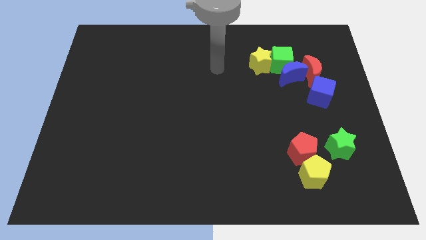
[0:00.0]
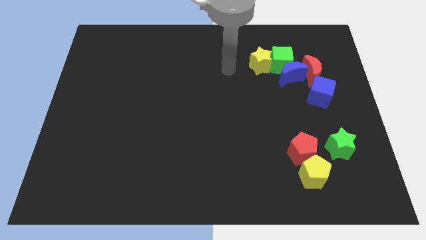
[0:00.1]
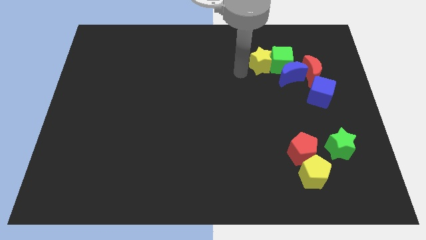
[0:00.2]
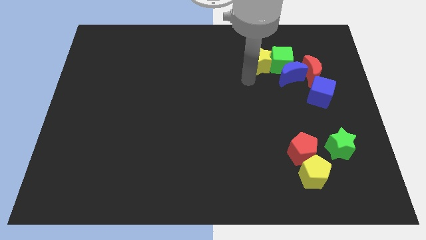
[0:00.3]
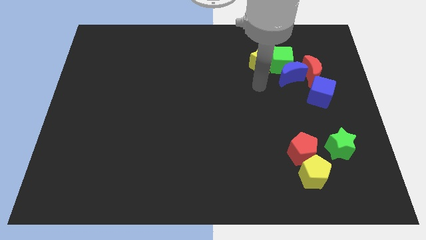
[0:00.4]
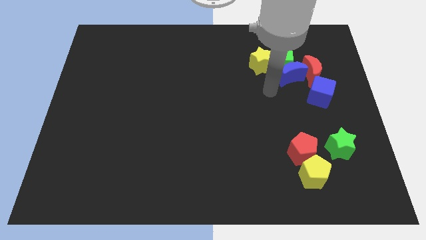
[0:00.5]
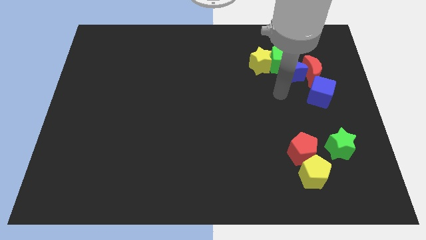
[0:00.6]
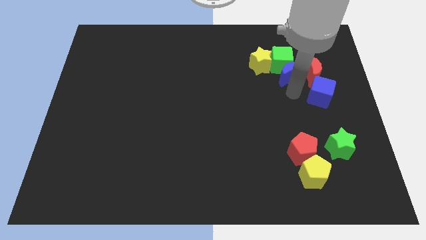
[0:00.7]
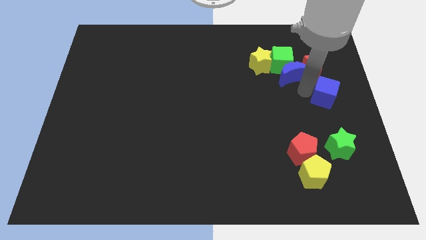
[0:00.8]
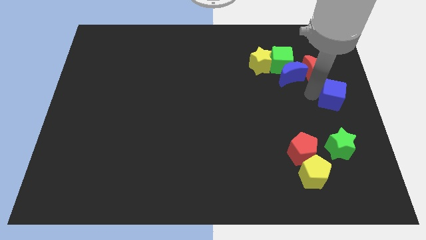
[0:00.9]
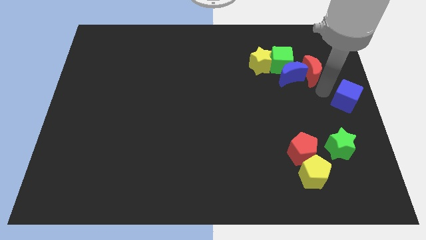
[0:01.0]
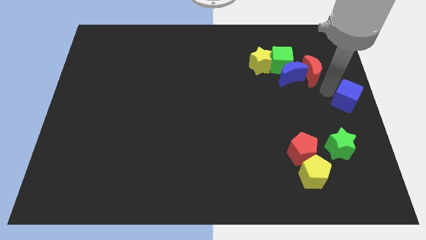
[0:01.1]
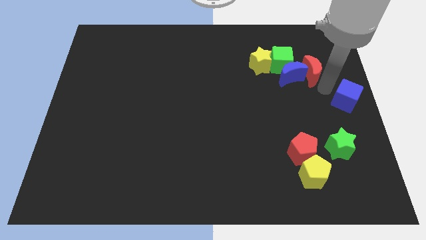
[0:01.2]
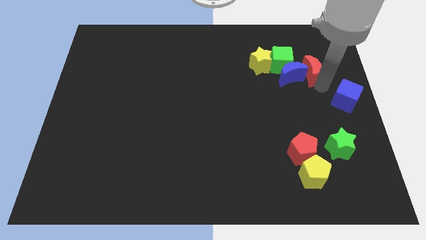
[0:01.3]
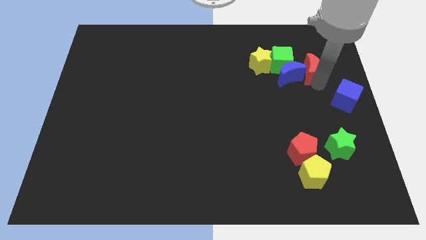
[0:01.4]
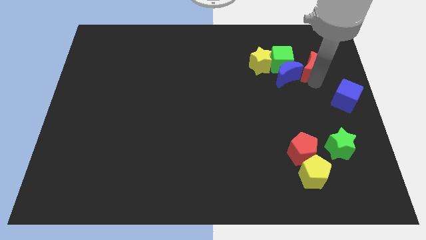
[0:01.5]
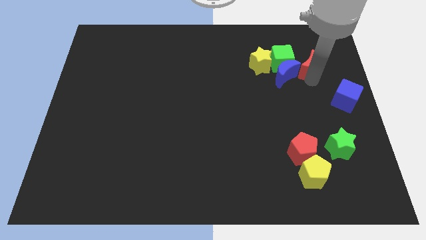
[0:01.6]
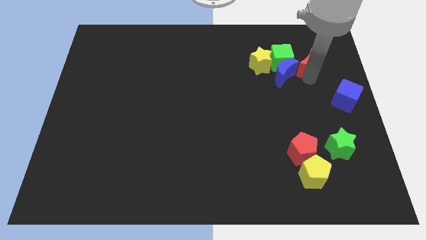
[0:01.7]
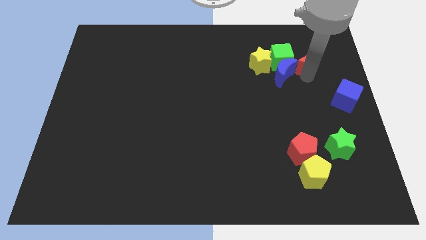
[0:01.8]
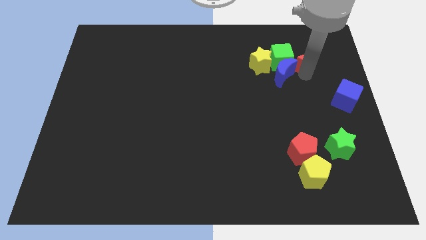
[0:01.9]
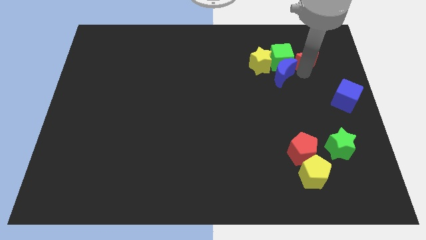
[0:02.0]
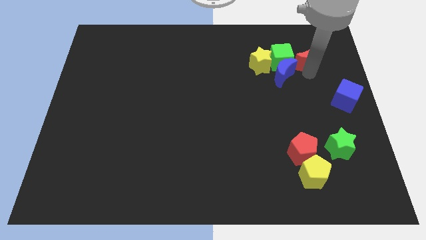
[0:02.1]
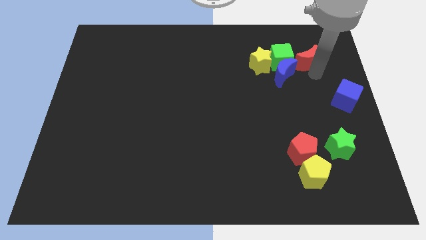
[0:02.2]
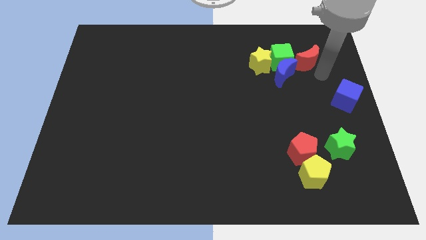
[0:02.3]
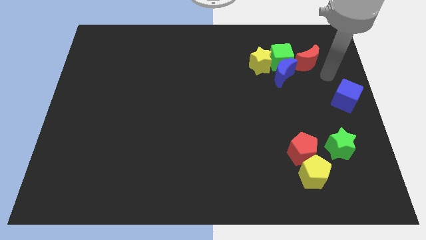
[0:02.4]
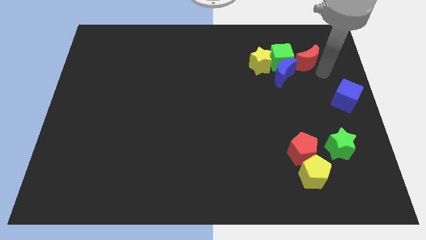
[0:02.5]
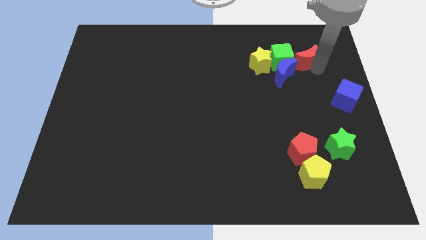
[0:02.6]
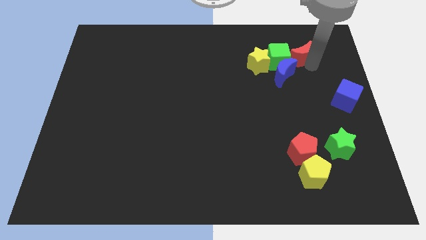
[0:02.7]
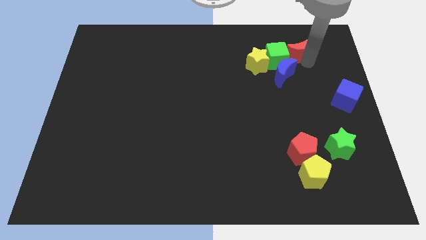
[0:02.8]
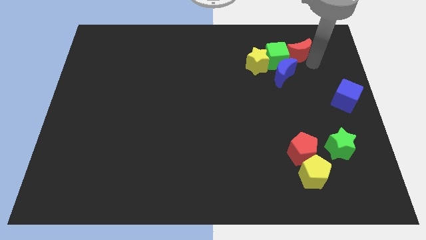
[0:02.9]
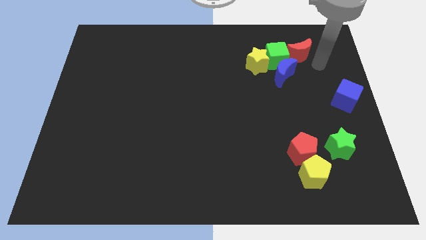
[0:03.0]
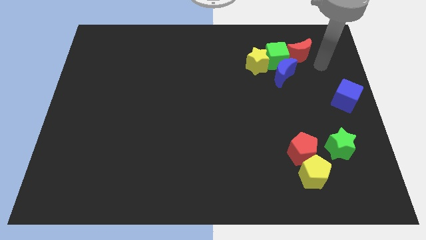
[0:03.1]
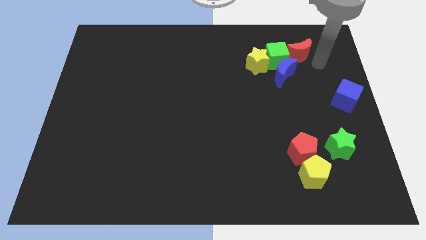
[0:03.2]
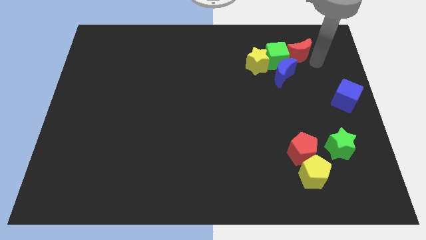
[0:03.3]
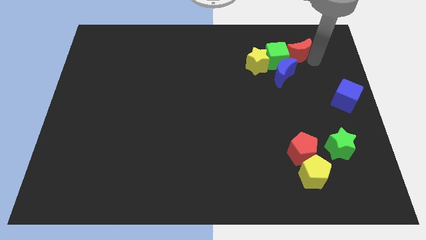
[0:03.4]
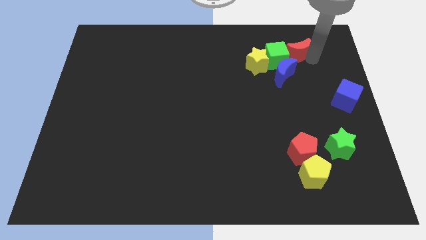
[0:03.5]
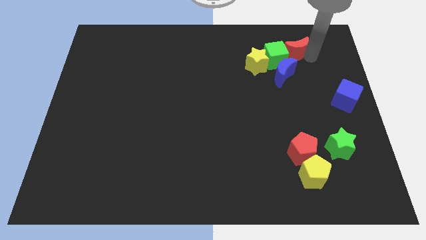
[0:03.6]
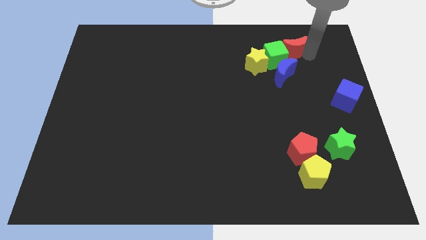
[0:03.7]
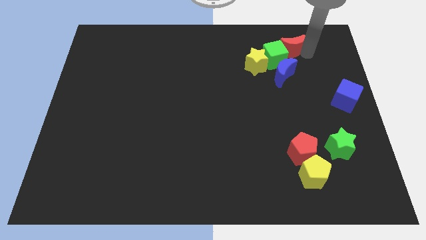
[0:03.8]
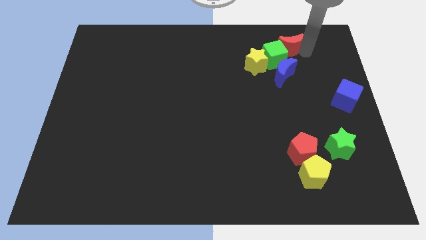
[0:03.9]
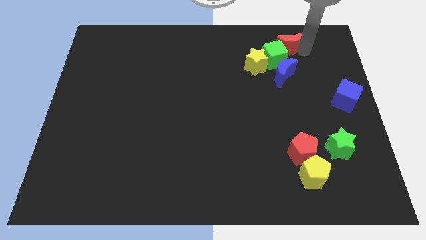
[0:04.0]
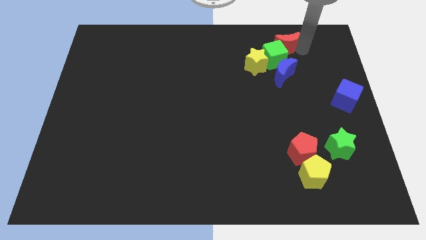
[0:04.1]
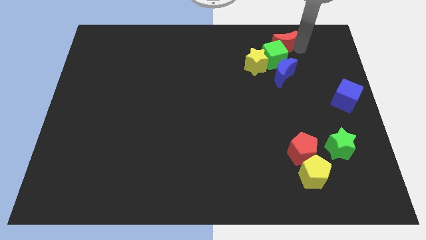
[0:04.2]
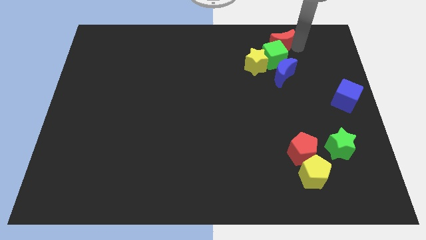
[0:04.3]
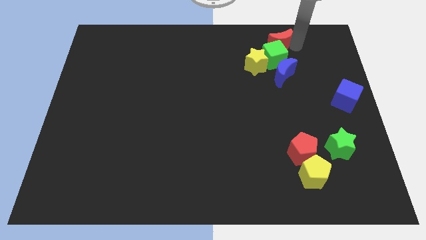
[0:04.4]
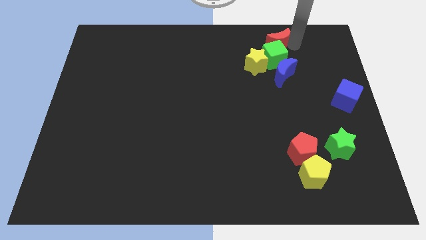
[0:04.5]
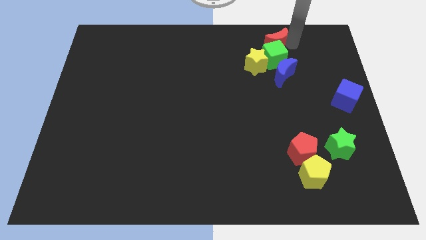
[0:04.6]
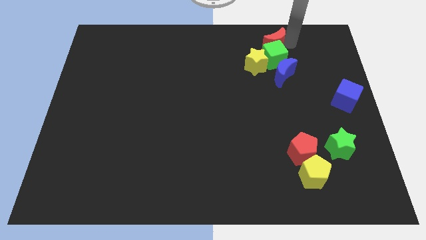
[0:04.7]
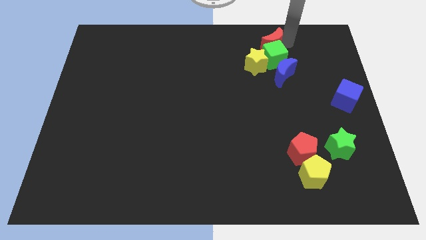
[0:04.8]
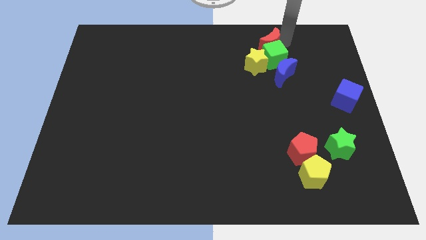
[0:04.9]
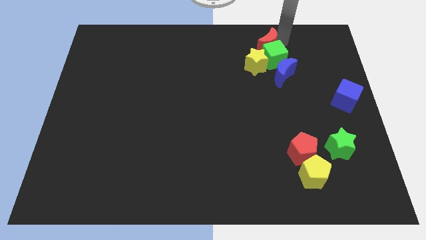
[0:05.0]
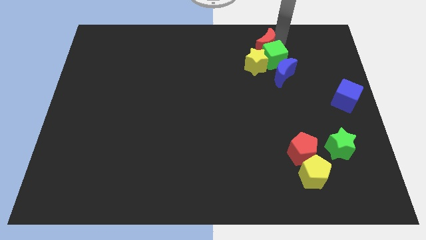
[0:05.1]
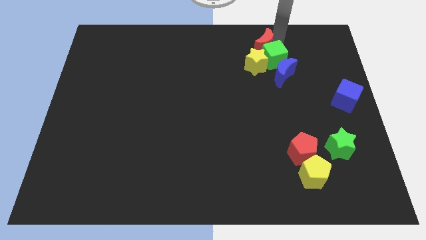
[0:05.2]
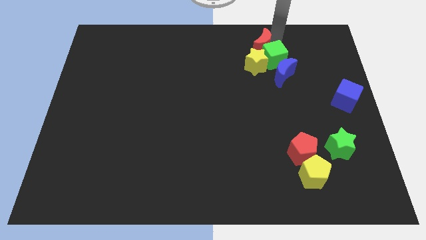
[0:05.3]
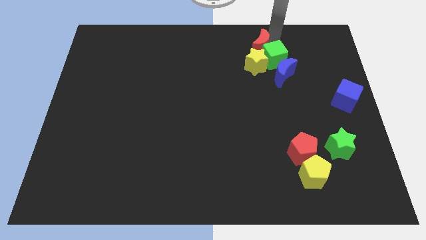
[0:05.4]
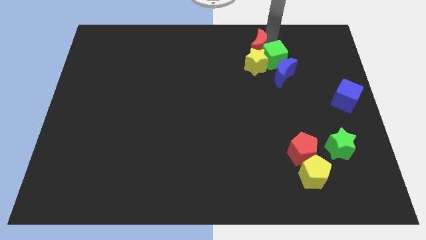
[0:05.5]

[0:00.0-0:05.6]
push the red moon close to the yellow star

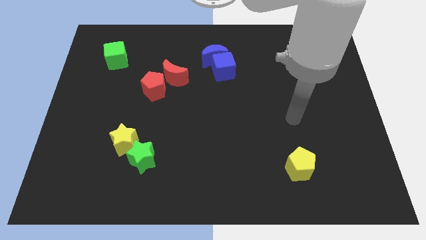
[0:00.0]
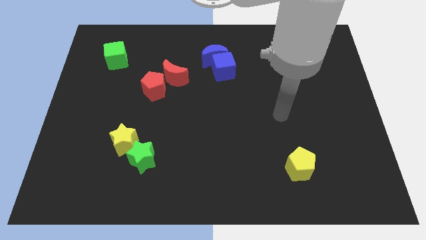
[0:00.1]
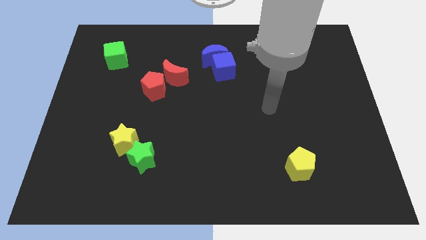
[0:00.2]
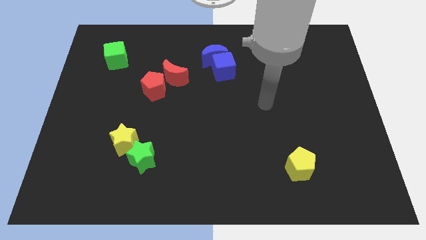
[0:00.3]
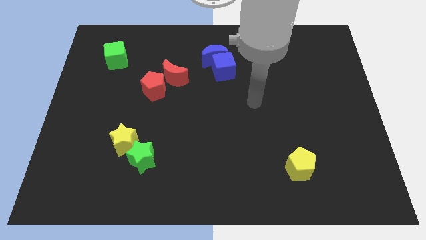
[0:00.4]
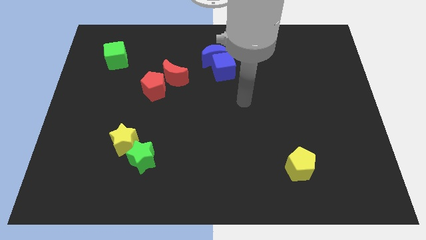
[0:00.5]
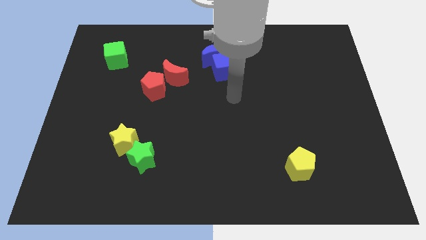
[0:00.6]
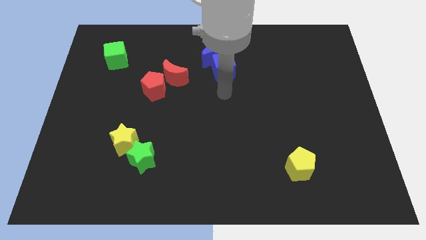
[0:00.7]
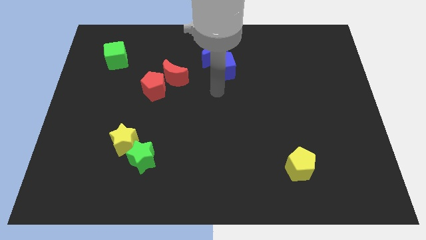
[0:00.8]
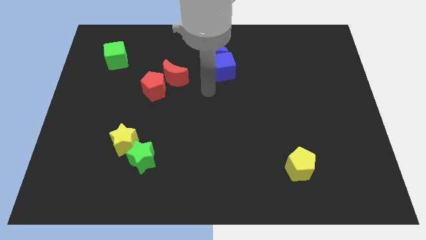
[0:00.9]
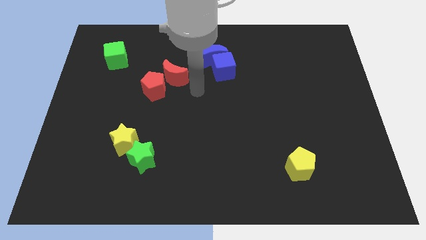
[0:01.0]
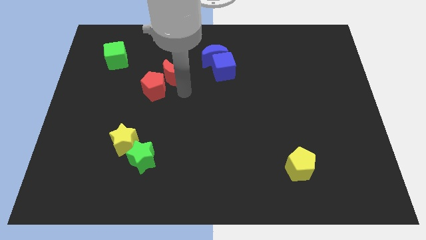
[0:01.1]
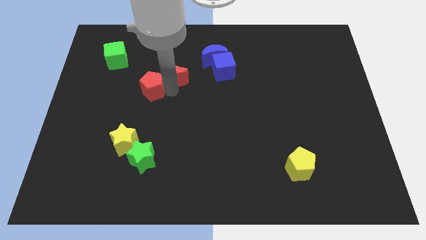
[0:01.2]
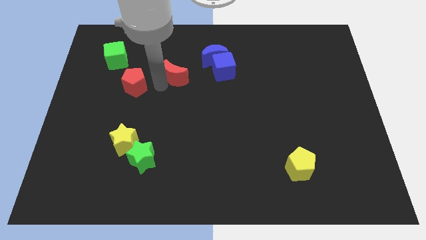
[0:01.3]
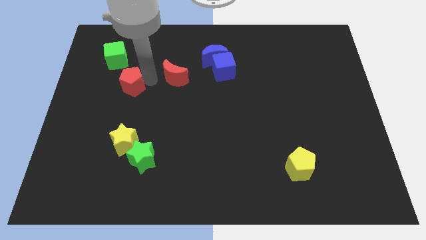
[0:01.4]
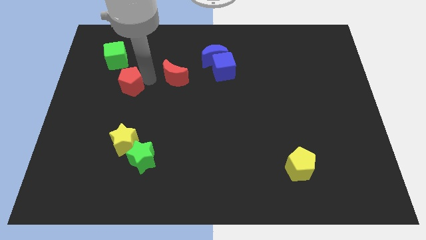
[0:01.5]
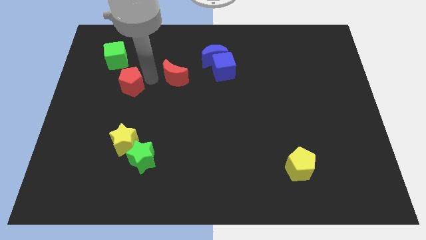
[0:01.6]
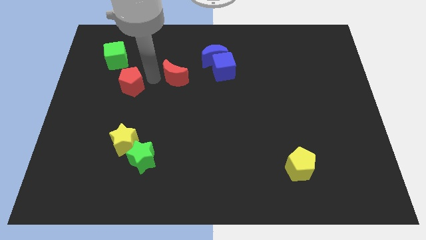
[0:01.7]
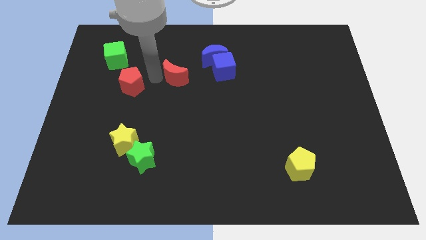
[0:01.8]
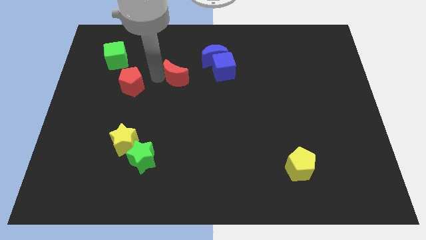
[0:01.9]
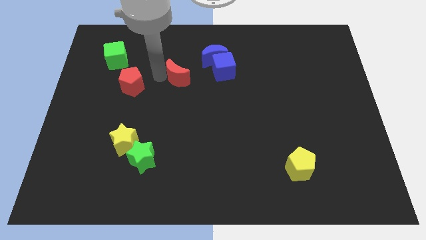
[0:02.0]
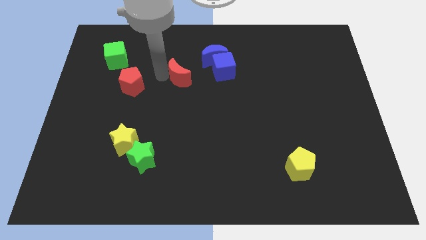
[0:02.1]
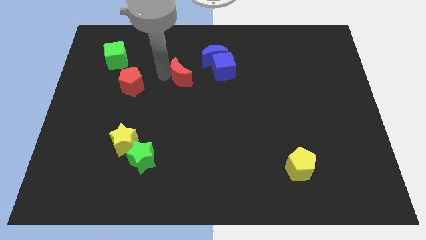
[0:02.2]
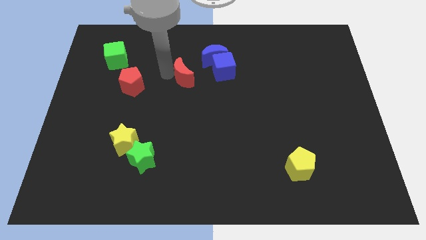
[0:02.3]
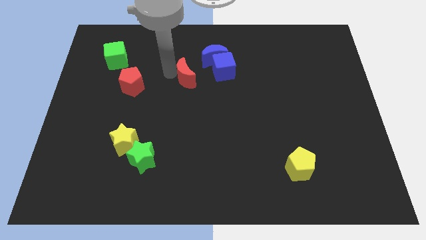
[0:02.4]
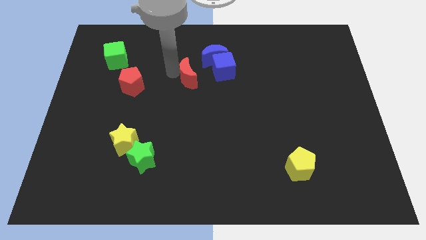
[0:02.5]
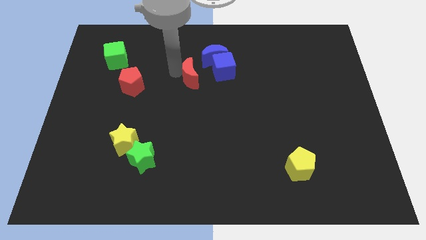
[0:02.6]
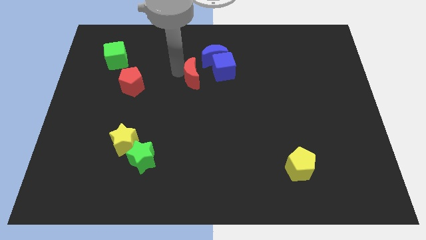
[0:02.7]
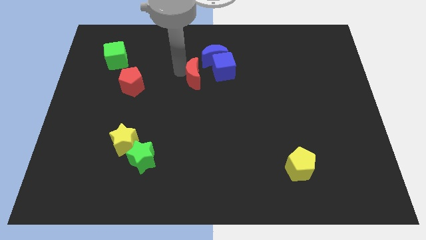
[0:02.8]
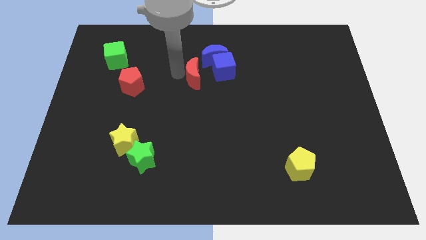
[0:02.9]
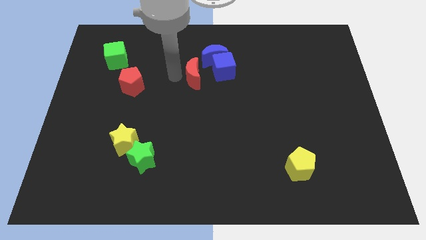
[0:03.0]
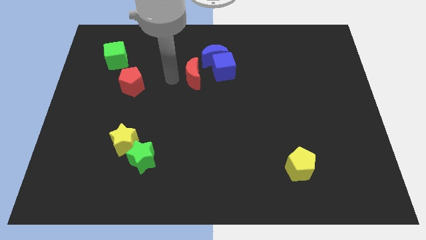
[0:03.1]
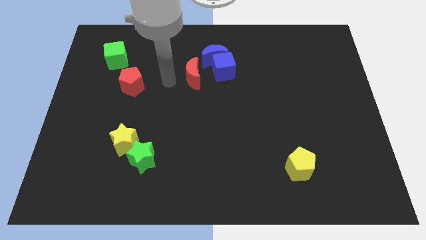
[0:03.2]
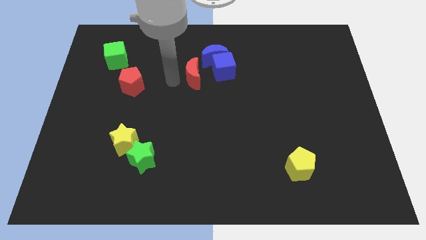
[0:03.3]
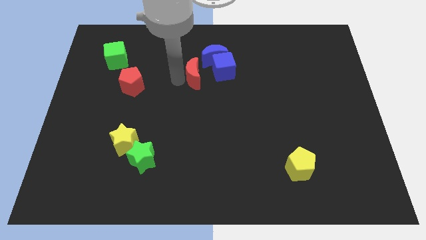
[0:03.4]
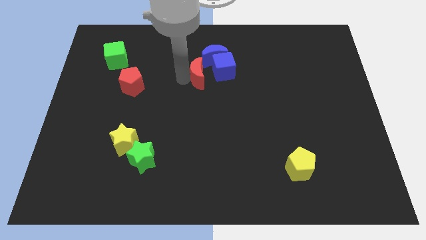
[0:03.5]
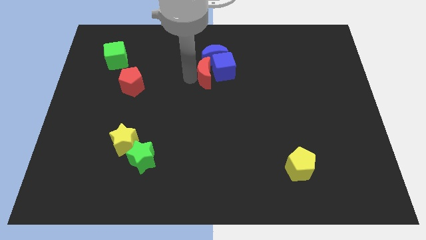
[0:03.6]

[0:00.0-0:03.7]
move the red moon towards the blue cube
